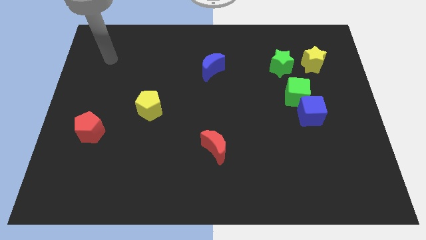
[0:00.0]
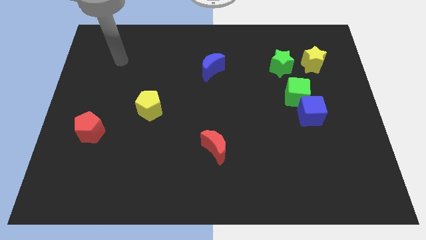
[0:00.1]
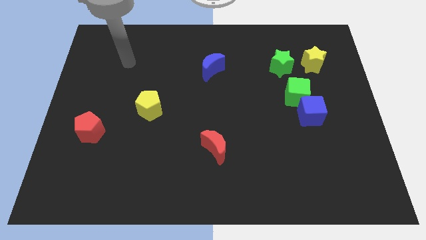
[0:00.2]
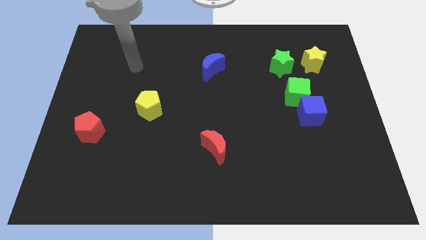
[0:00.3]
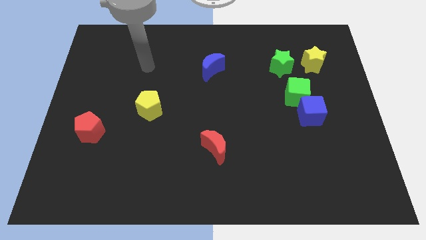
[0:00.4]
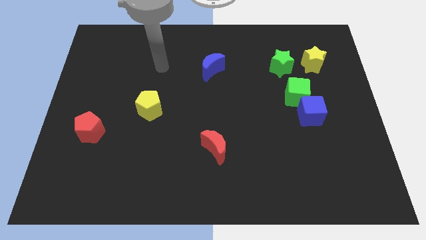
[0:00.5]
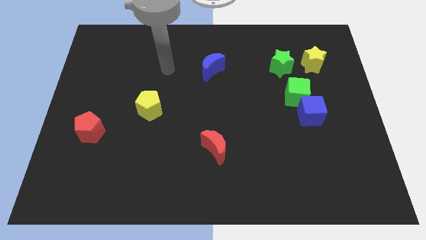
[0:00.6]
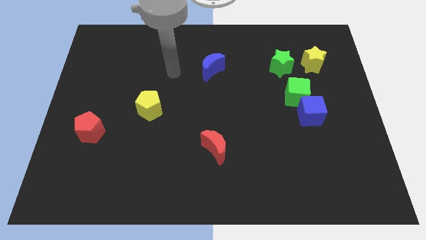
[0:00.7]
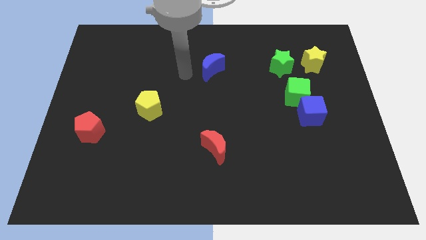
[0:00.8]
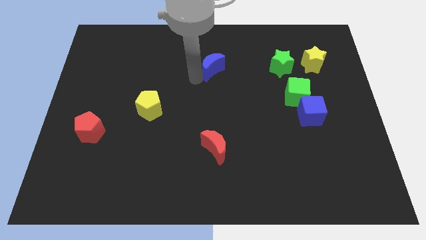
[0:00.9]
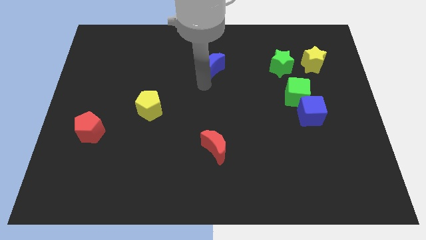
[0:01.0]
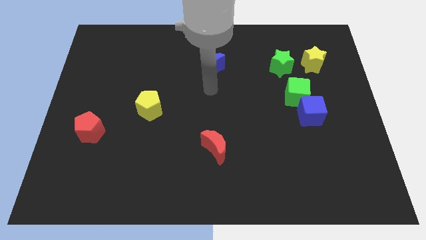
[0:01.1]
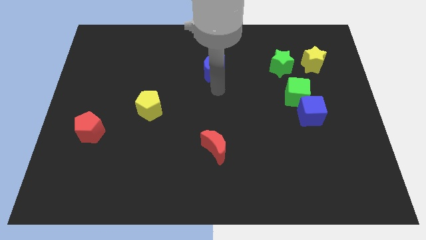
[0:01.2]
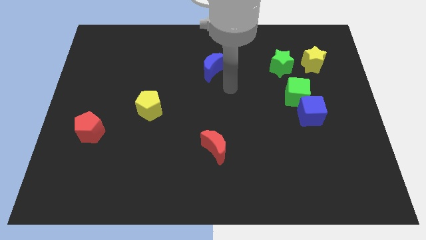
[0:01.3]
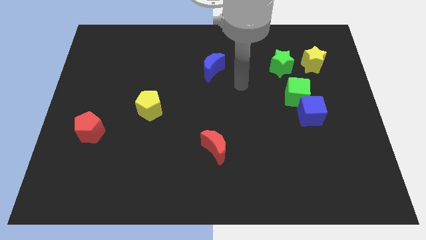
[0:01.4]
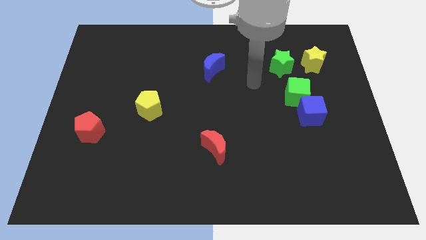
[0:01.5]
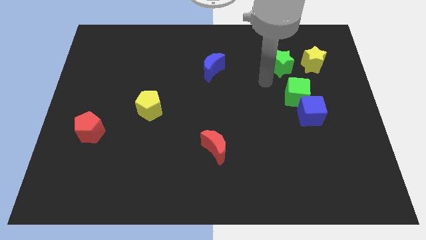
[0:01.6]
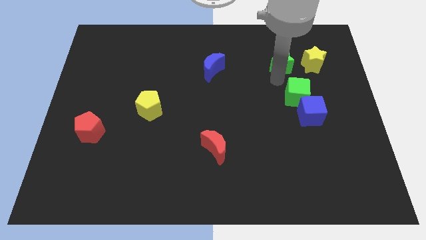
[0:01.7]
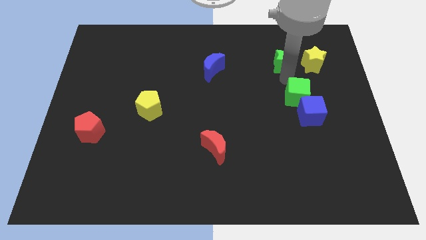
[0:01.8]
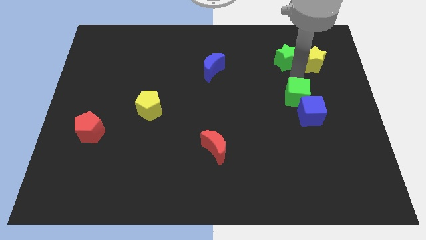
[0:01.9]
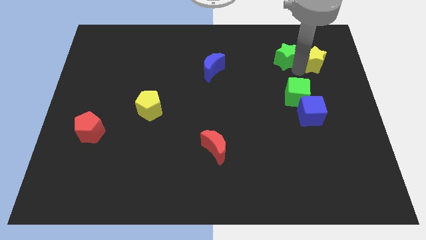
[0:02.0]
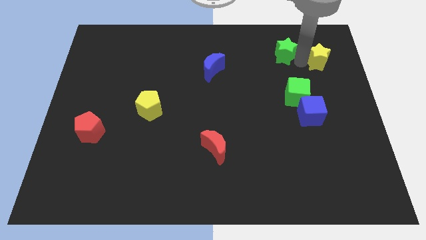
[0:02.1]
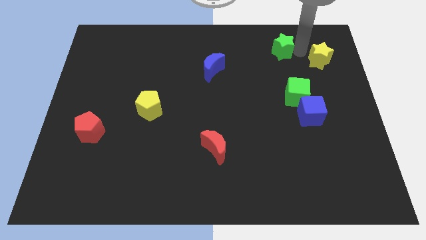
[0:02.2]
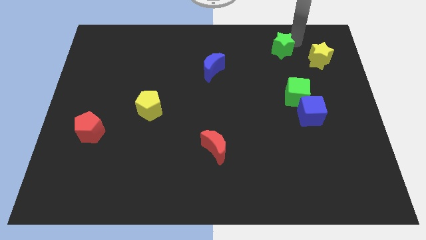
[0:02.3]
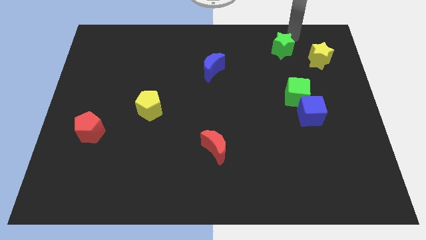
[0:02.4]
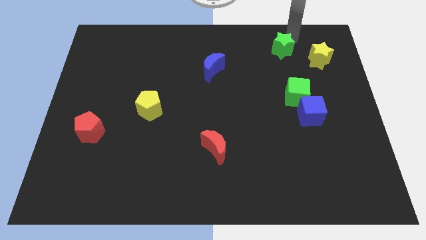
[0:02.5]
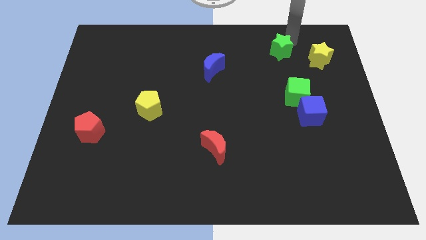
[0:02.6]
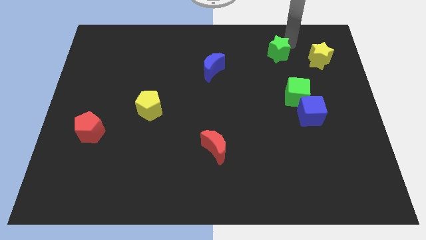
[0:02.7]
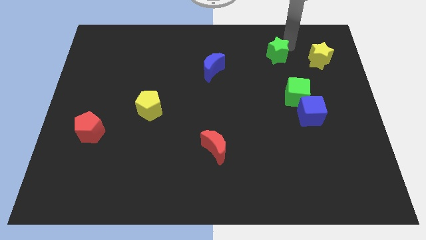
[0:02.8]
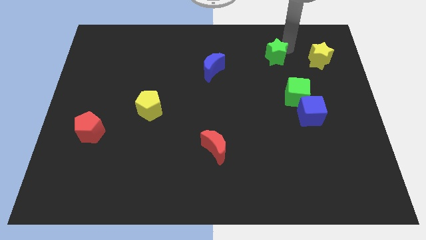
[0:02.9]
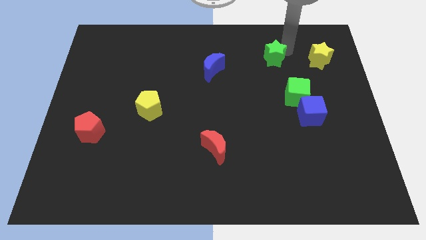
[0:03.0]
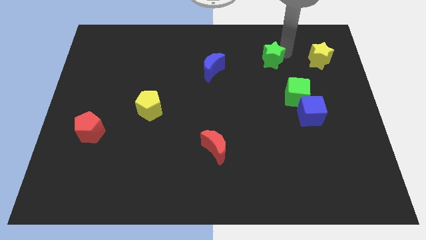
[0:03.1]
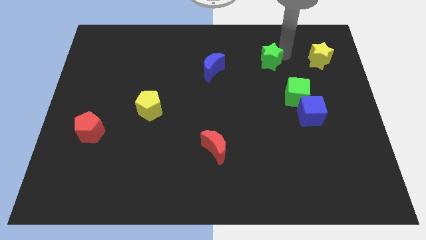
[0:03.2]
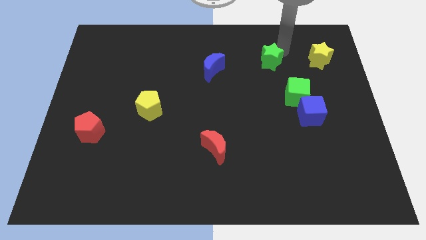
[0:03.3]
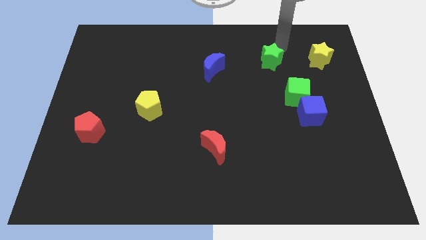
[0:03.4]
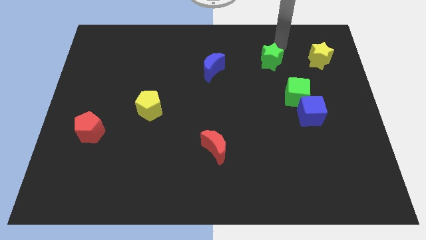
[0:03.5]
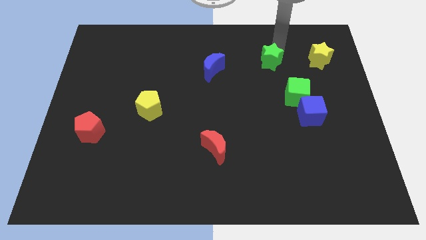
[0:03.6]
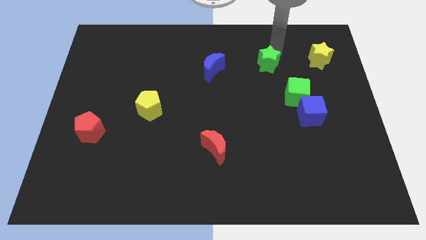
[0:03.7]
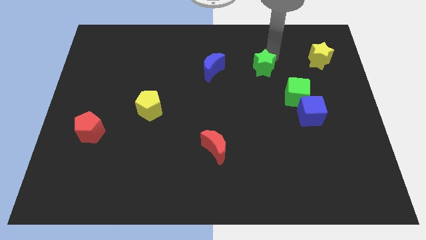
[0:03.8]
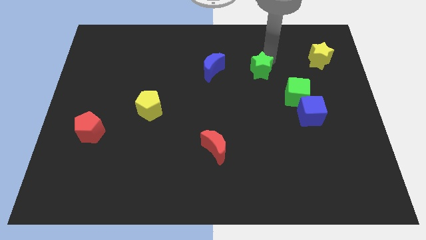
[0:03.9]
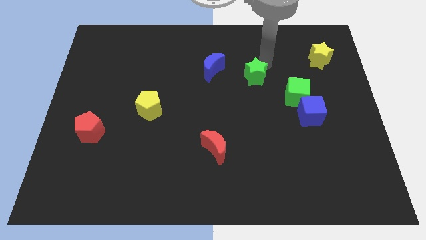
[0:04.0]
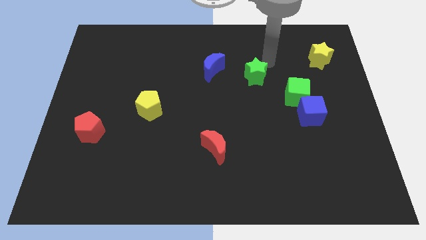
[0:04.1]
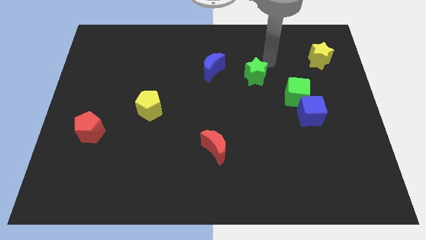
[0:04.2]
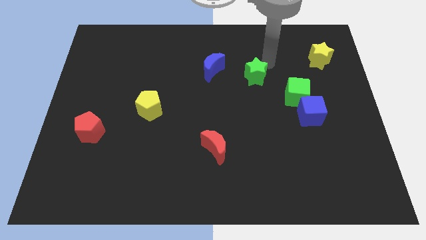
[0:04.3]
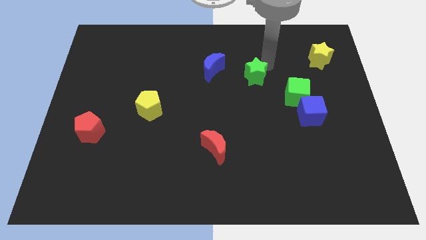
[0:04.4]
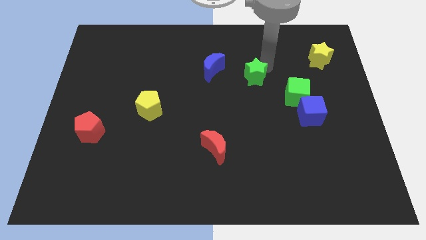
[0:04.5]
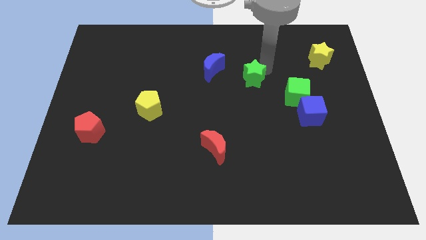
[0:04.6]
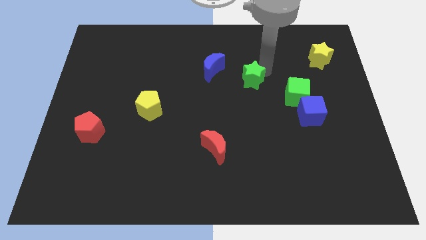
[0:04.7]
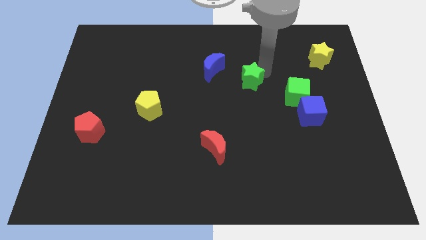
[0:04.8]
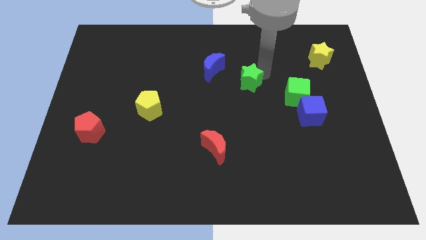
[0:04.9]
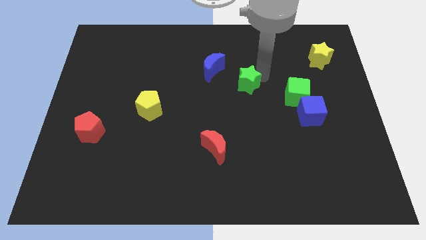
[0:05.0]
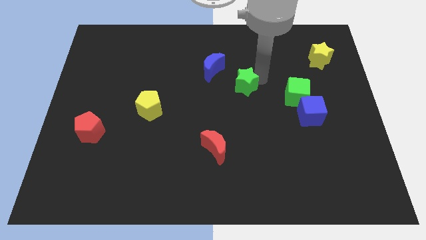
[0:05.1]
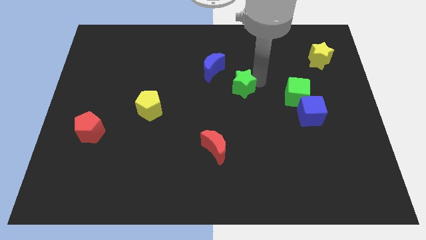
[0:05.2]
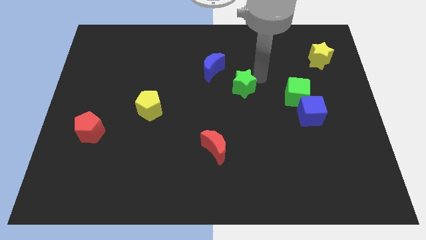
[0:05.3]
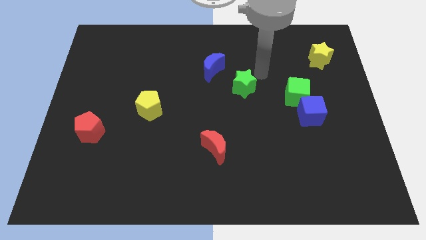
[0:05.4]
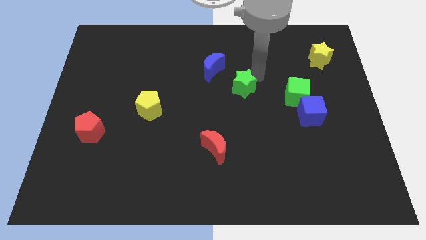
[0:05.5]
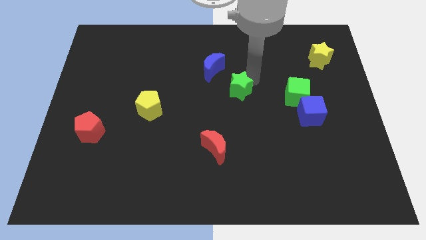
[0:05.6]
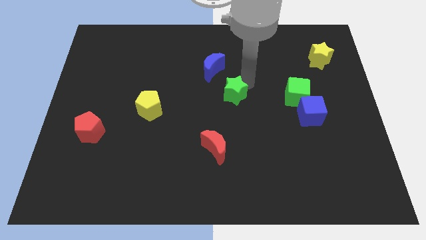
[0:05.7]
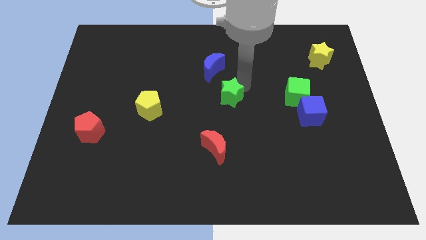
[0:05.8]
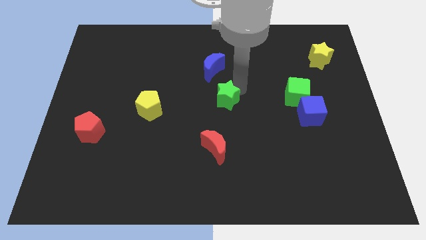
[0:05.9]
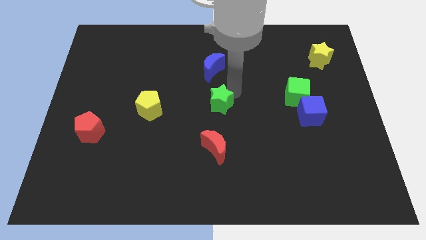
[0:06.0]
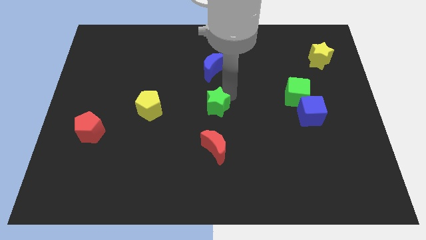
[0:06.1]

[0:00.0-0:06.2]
slide the green star down and to the left diagonally

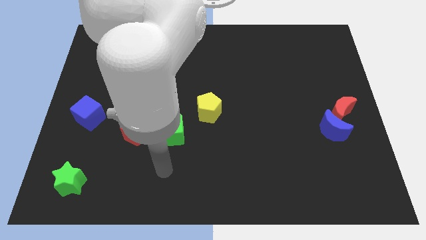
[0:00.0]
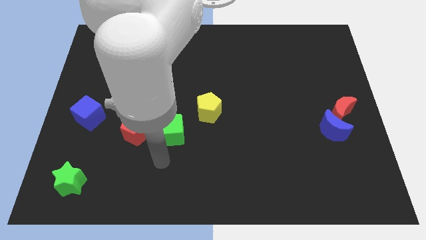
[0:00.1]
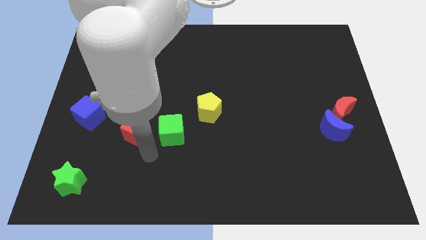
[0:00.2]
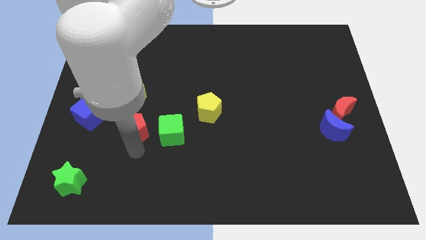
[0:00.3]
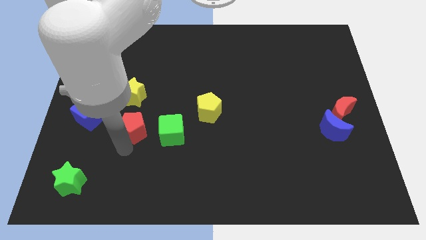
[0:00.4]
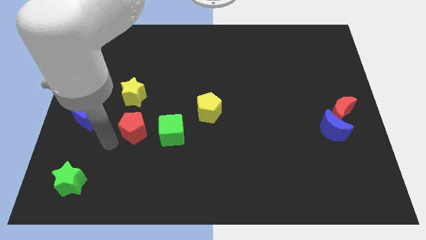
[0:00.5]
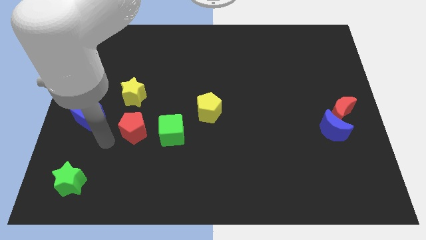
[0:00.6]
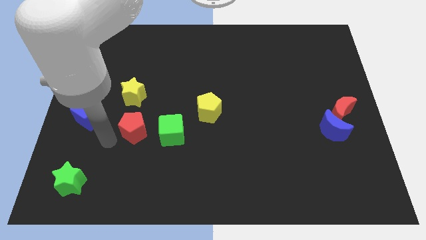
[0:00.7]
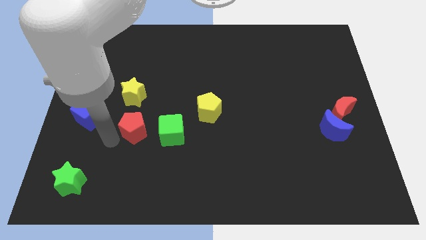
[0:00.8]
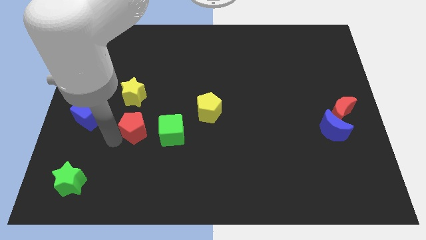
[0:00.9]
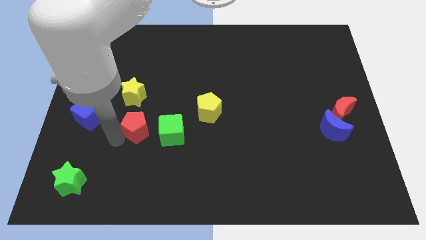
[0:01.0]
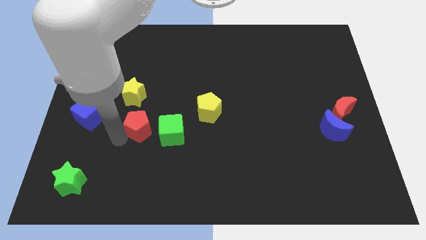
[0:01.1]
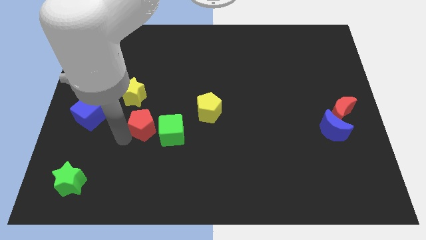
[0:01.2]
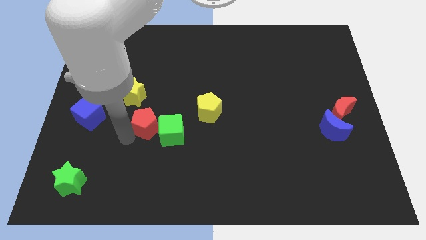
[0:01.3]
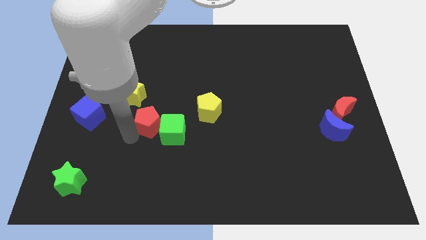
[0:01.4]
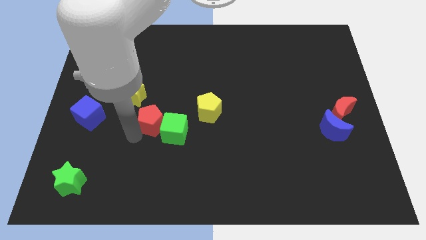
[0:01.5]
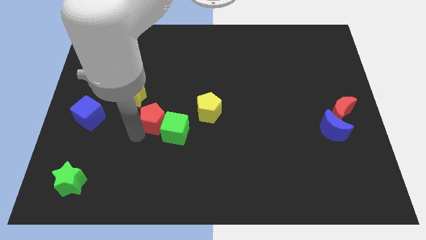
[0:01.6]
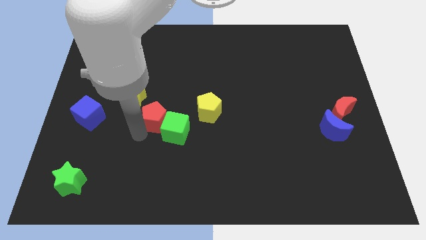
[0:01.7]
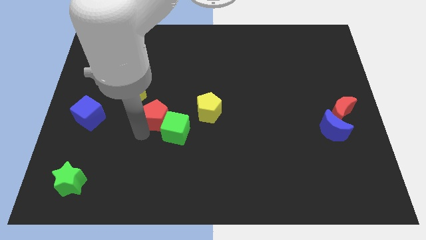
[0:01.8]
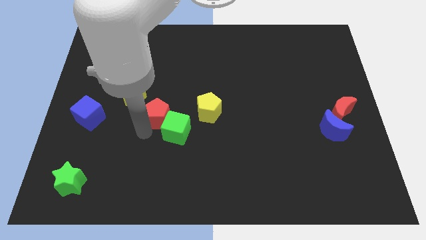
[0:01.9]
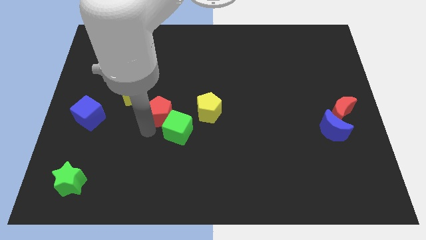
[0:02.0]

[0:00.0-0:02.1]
slide the red pentagon a little bit upwards and then to the right
